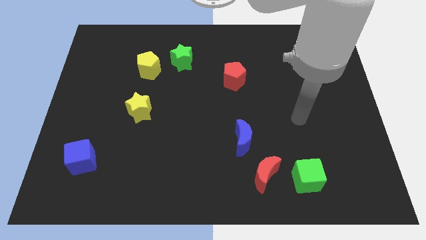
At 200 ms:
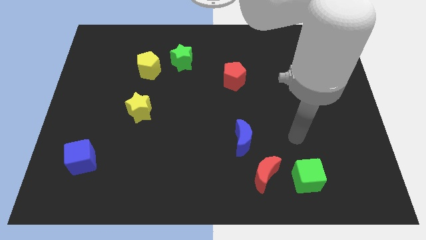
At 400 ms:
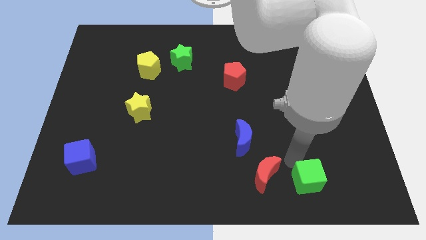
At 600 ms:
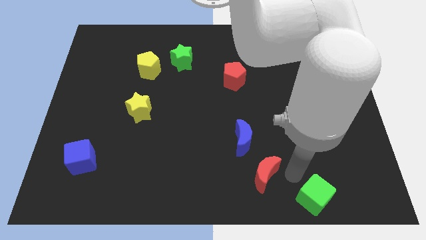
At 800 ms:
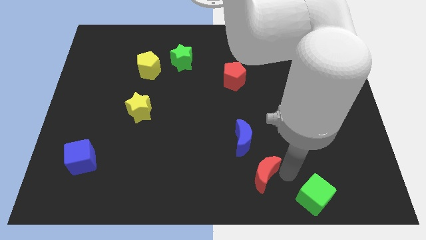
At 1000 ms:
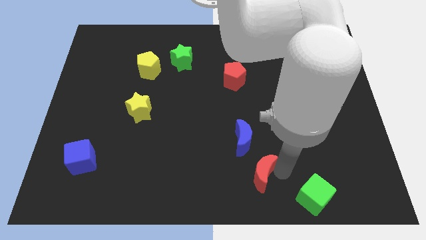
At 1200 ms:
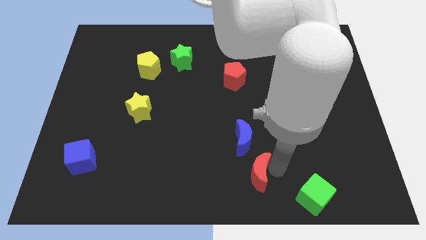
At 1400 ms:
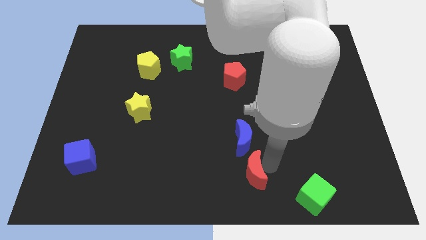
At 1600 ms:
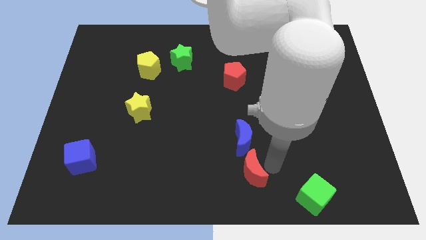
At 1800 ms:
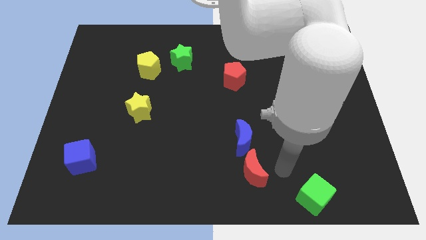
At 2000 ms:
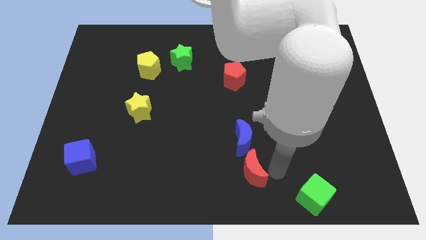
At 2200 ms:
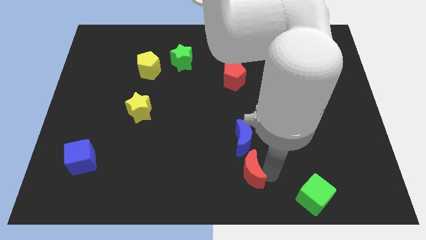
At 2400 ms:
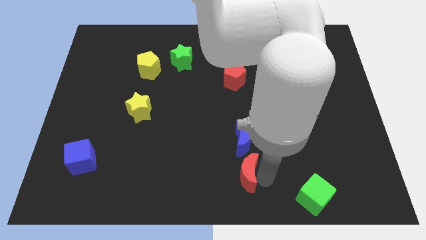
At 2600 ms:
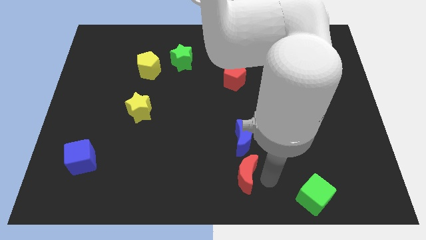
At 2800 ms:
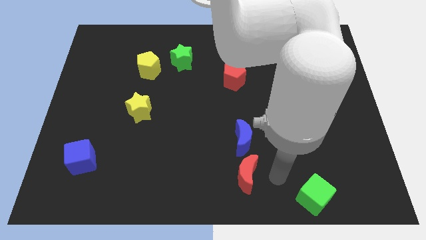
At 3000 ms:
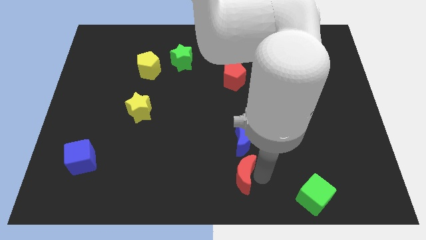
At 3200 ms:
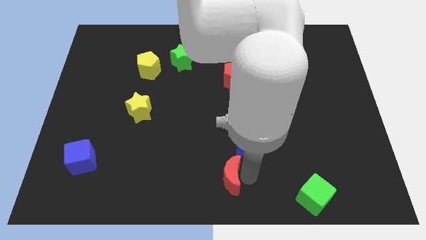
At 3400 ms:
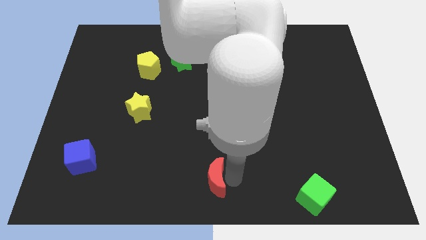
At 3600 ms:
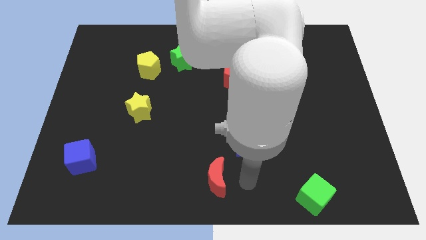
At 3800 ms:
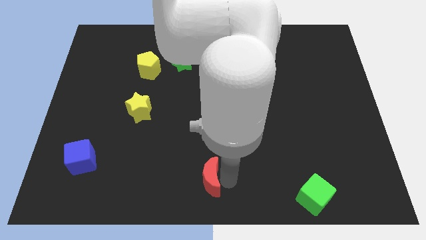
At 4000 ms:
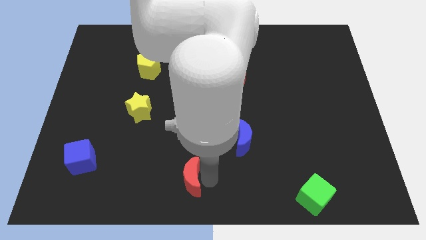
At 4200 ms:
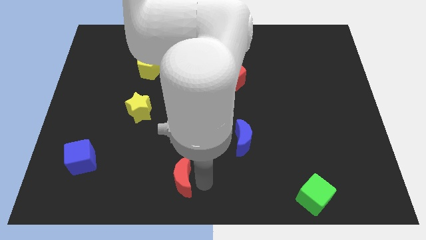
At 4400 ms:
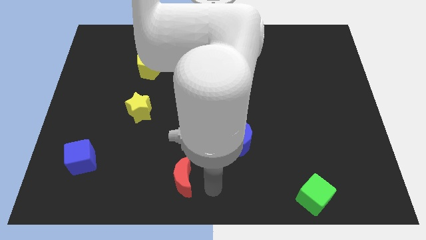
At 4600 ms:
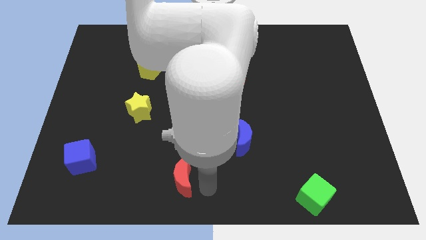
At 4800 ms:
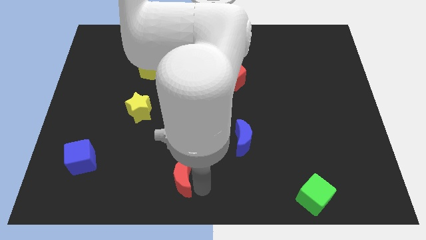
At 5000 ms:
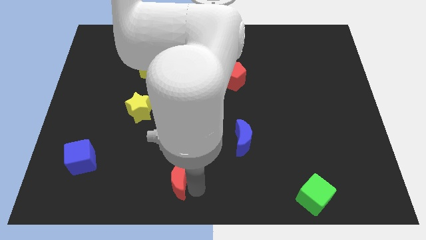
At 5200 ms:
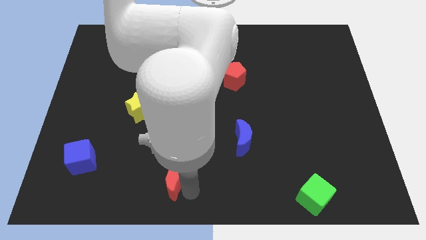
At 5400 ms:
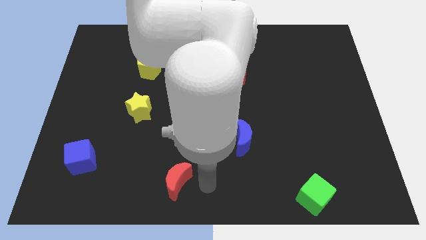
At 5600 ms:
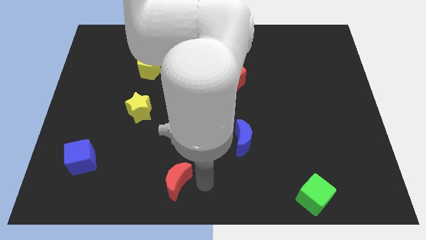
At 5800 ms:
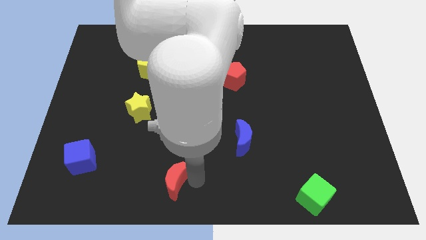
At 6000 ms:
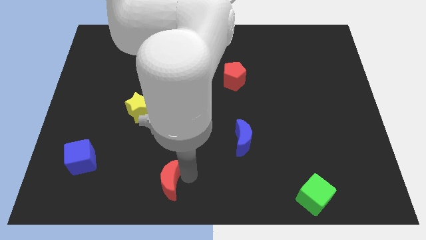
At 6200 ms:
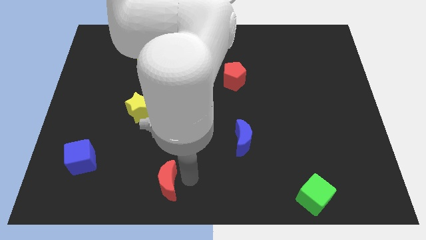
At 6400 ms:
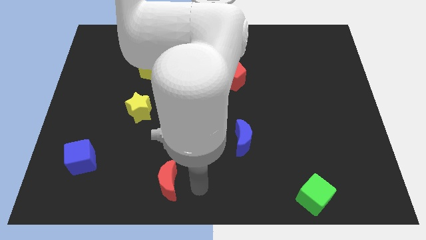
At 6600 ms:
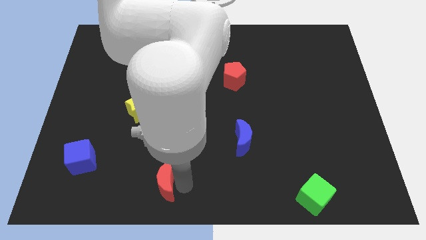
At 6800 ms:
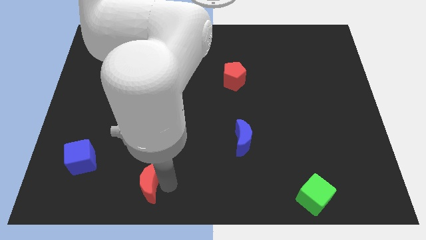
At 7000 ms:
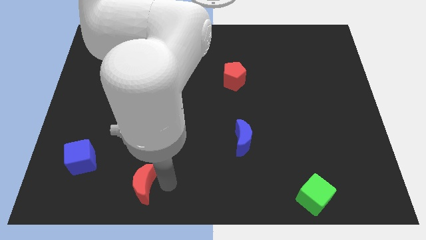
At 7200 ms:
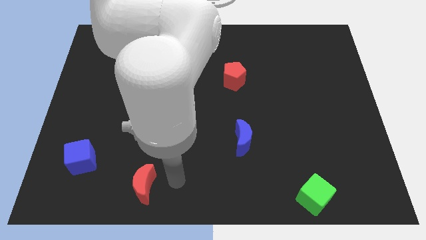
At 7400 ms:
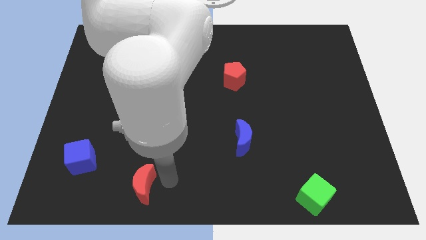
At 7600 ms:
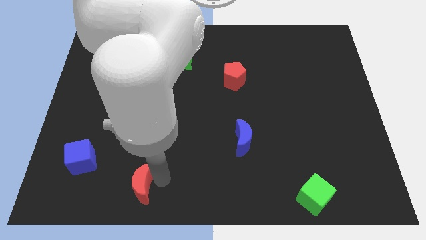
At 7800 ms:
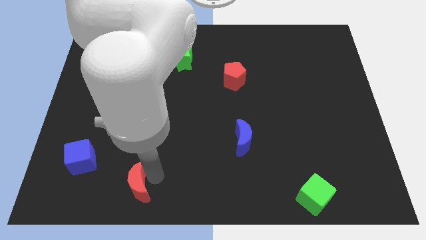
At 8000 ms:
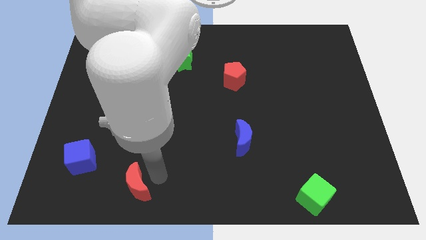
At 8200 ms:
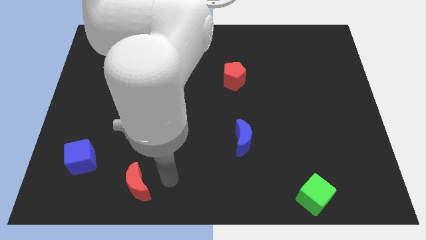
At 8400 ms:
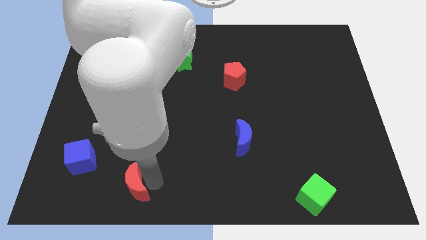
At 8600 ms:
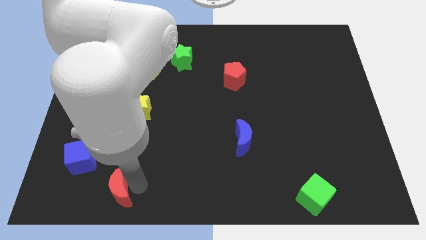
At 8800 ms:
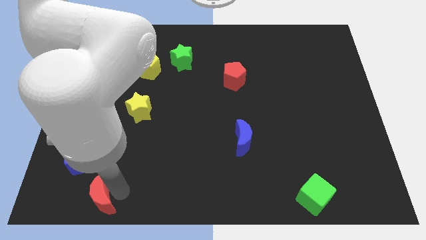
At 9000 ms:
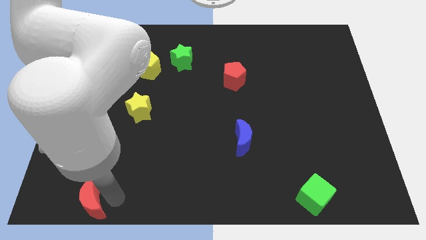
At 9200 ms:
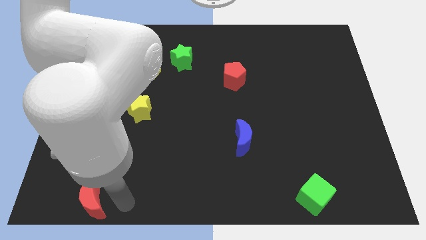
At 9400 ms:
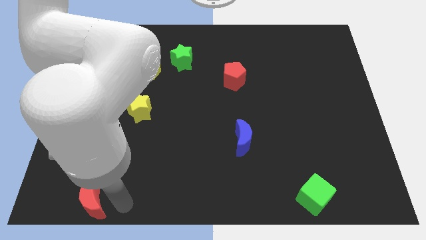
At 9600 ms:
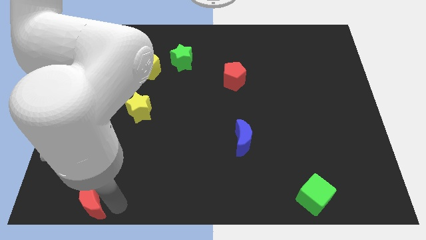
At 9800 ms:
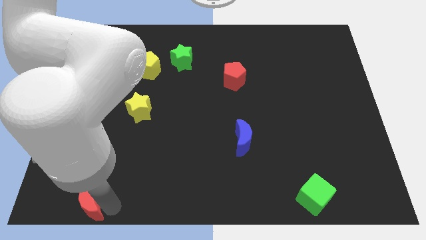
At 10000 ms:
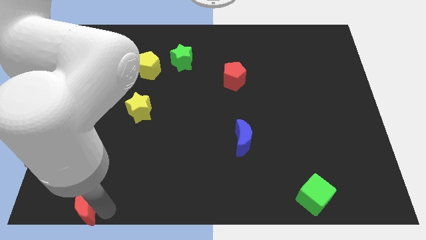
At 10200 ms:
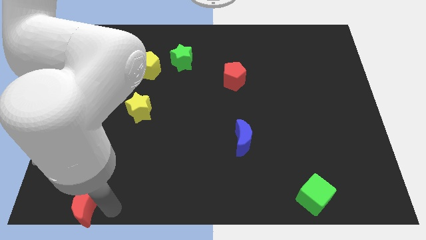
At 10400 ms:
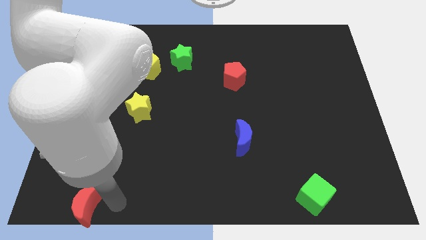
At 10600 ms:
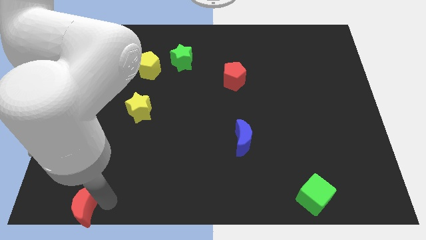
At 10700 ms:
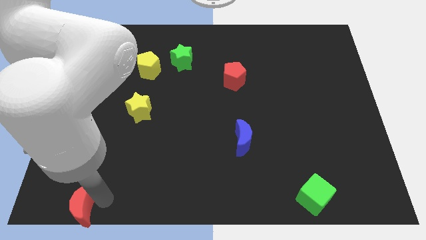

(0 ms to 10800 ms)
slide the red moon to the bottom left

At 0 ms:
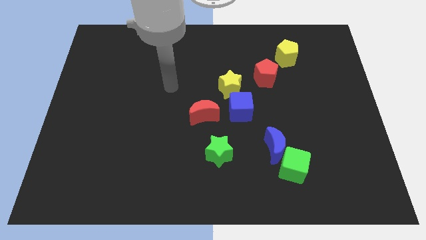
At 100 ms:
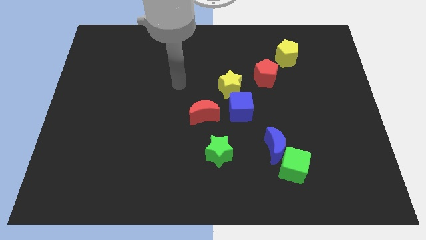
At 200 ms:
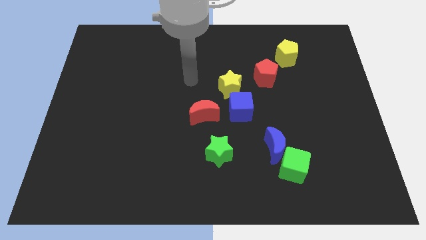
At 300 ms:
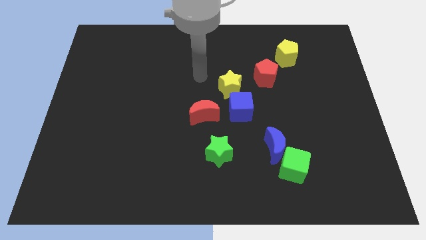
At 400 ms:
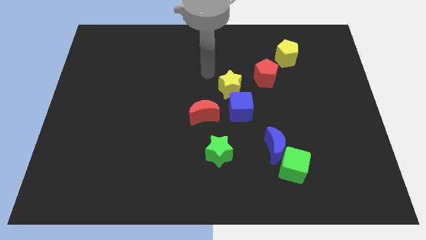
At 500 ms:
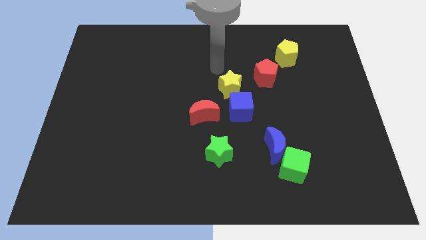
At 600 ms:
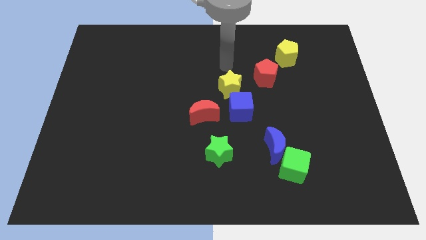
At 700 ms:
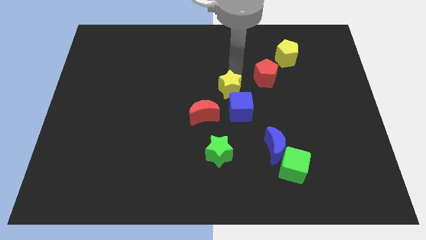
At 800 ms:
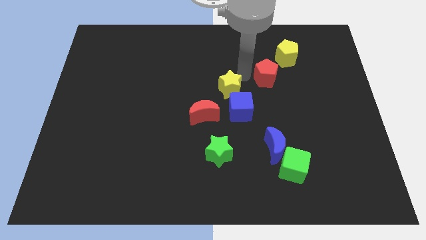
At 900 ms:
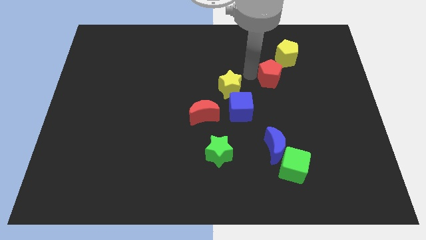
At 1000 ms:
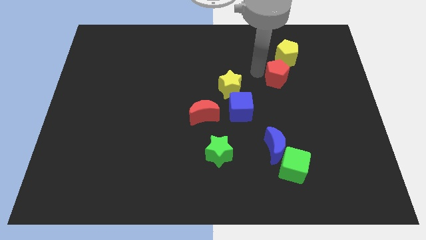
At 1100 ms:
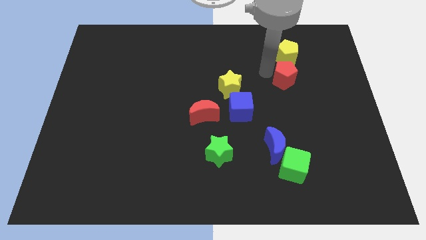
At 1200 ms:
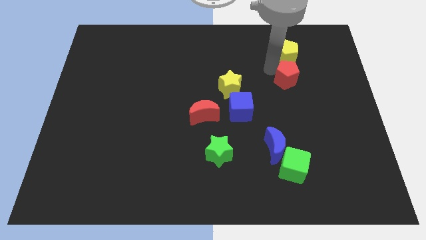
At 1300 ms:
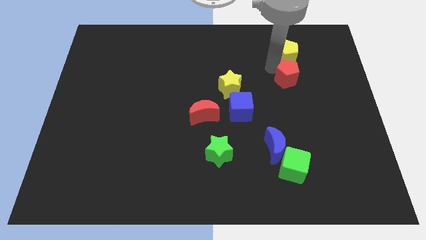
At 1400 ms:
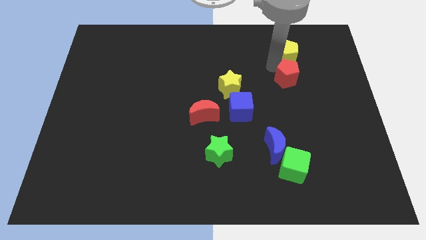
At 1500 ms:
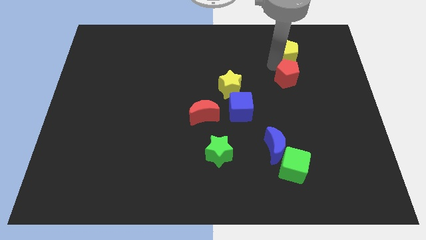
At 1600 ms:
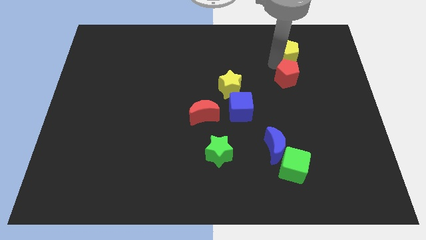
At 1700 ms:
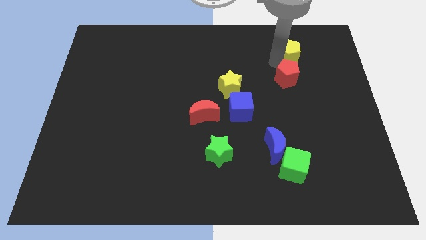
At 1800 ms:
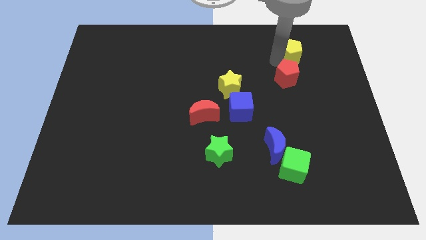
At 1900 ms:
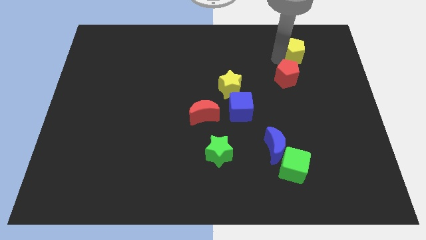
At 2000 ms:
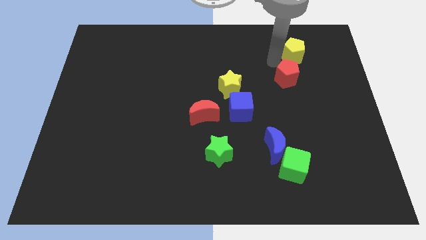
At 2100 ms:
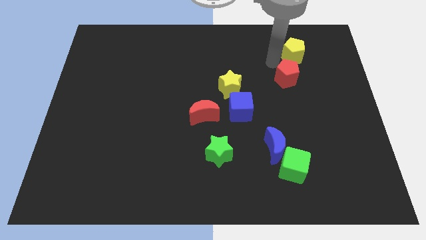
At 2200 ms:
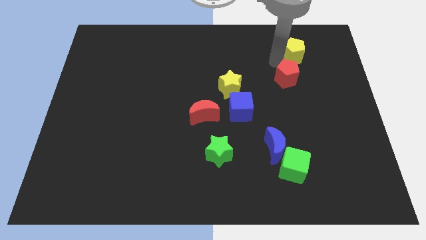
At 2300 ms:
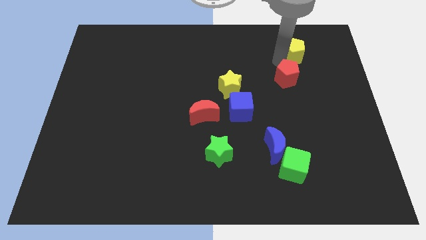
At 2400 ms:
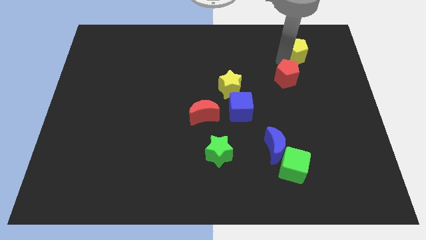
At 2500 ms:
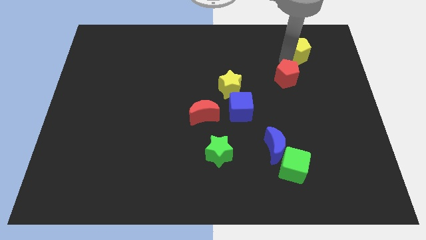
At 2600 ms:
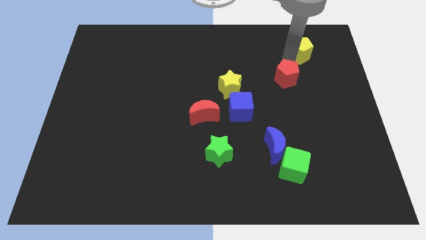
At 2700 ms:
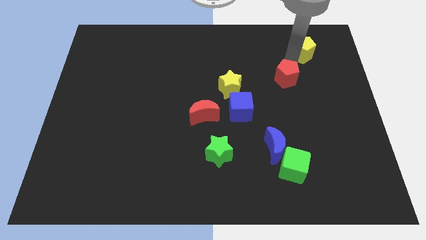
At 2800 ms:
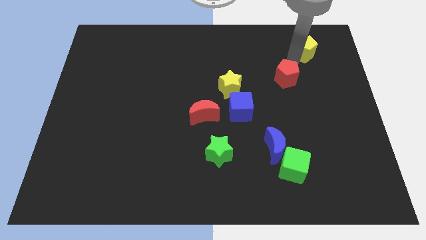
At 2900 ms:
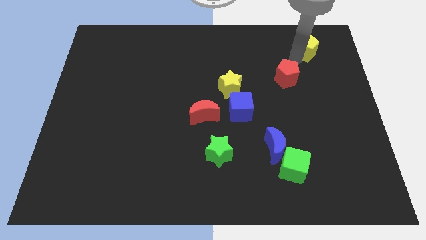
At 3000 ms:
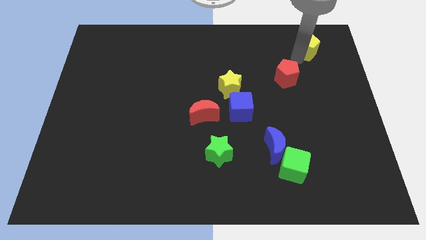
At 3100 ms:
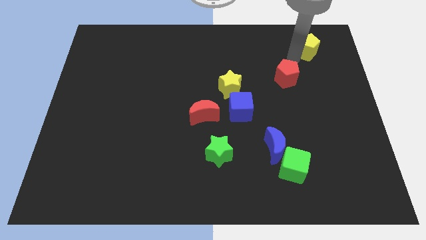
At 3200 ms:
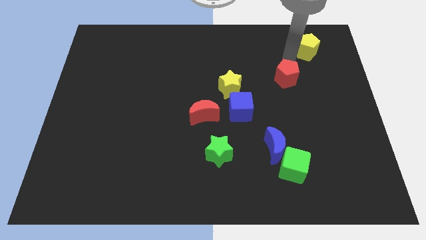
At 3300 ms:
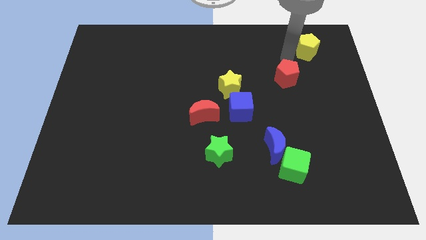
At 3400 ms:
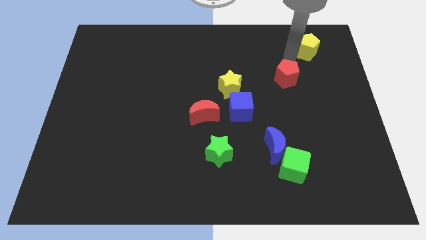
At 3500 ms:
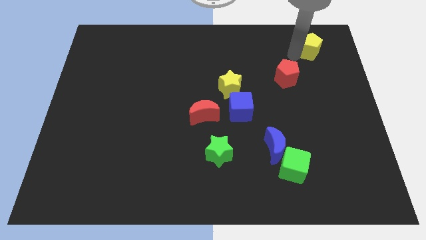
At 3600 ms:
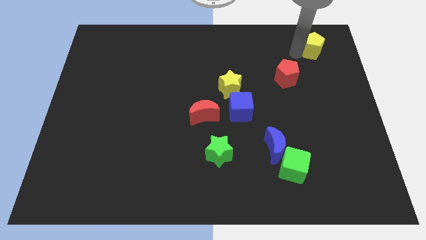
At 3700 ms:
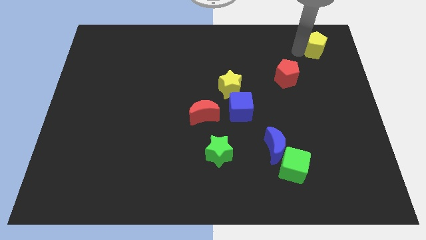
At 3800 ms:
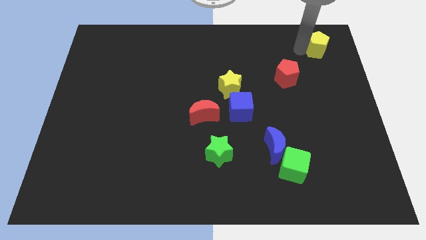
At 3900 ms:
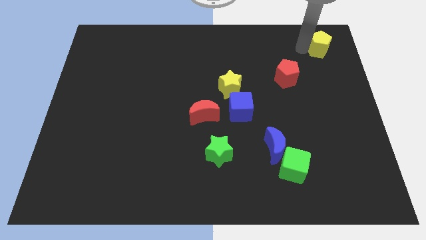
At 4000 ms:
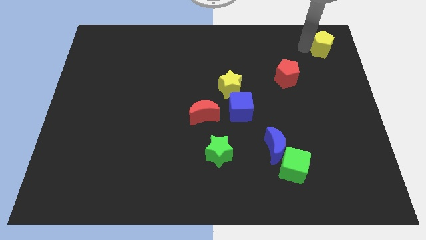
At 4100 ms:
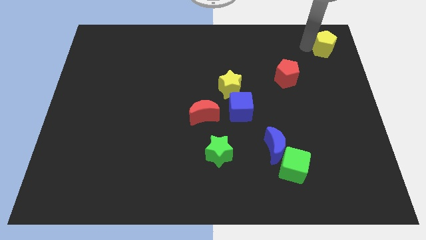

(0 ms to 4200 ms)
slide the yellow pentagon to the top right of the board
